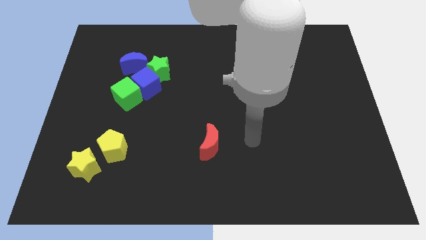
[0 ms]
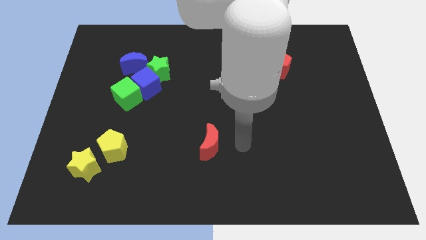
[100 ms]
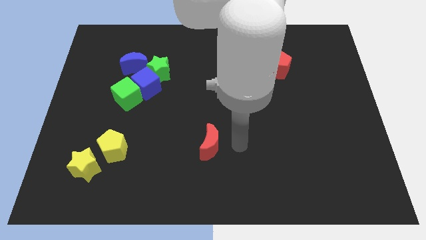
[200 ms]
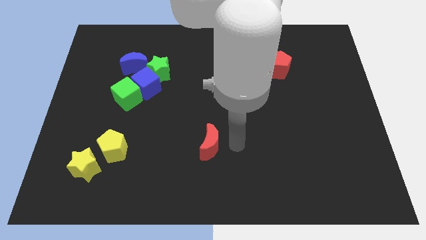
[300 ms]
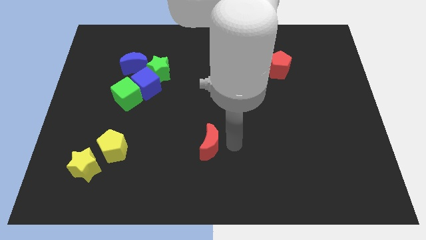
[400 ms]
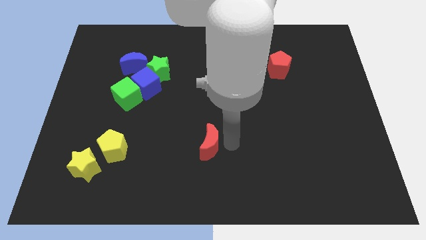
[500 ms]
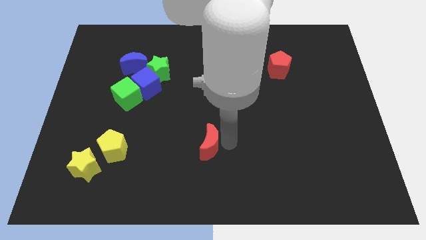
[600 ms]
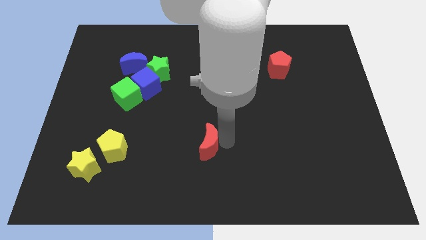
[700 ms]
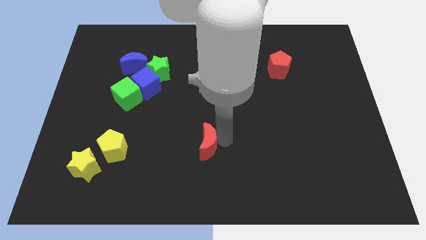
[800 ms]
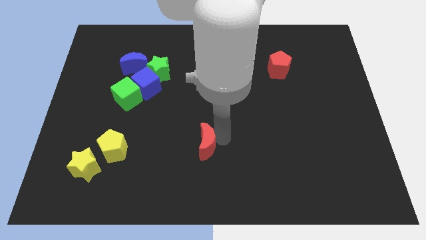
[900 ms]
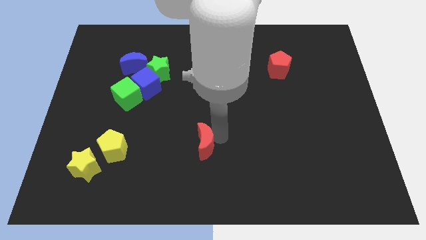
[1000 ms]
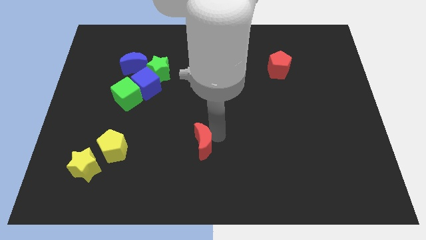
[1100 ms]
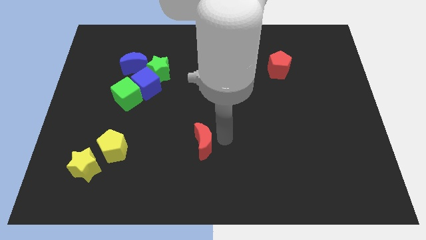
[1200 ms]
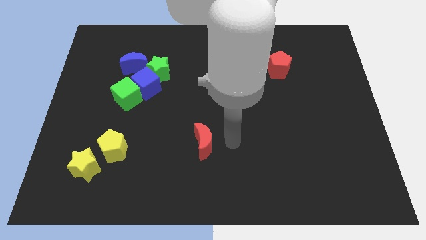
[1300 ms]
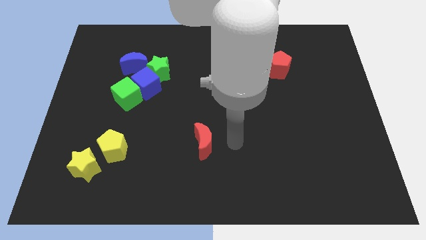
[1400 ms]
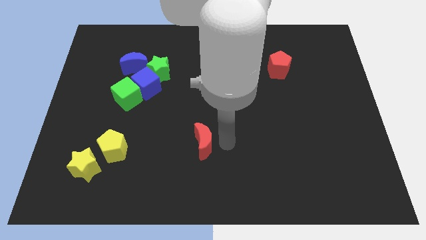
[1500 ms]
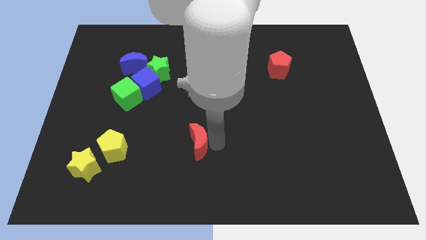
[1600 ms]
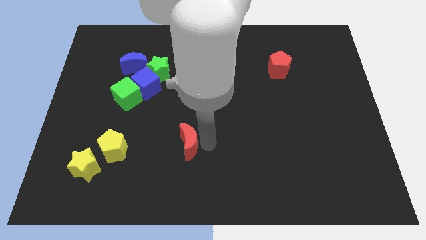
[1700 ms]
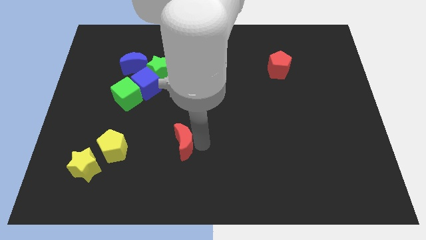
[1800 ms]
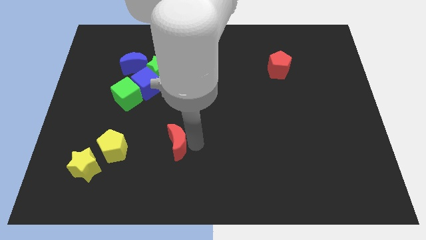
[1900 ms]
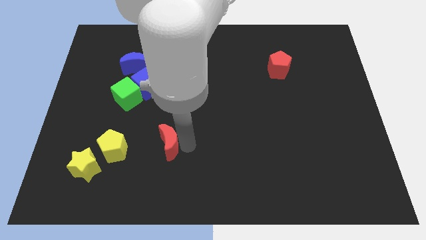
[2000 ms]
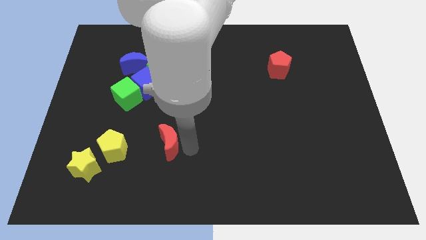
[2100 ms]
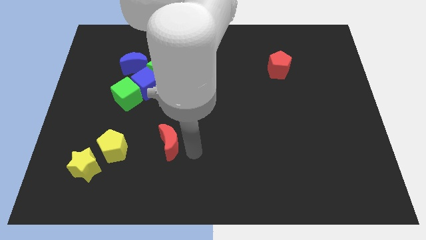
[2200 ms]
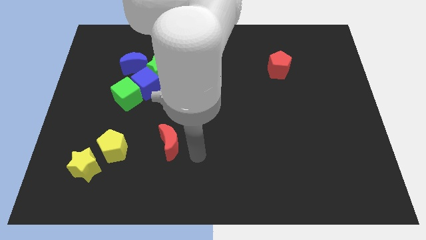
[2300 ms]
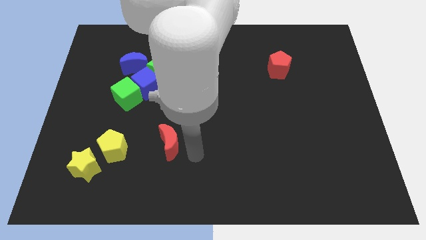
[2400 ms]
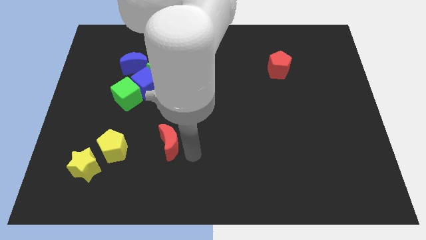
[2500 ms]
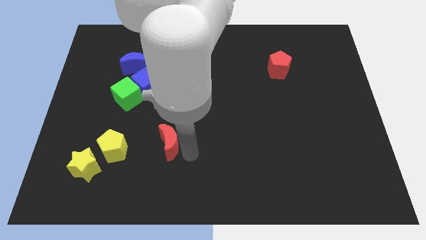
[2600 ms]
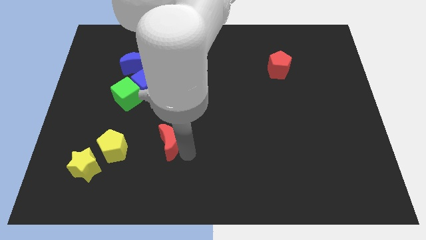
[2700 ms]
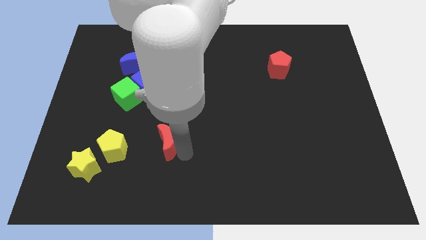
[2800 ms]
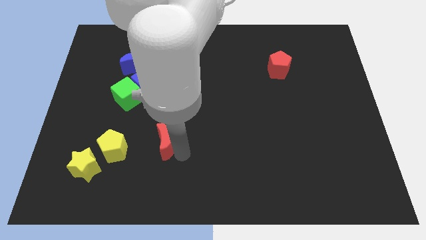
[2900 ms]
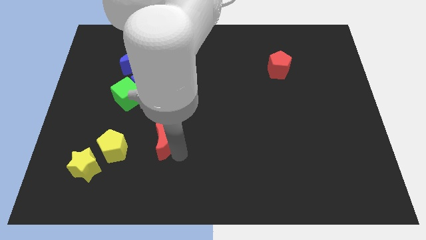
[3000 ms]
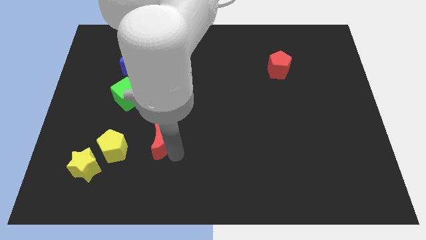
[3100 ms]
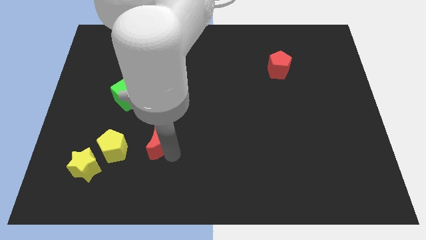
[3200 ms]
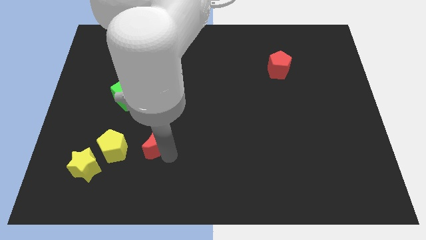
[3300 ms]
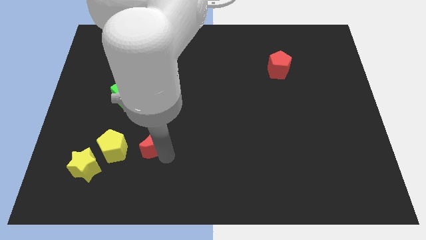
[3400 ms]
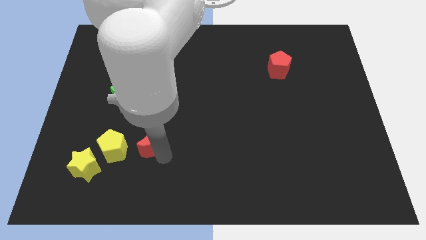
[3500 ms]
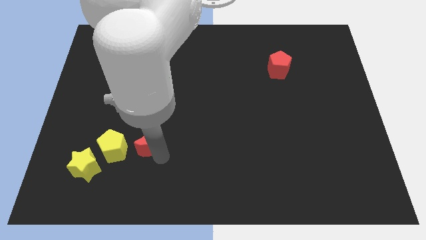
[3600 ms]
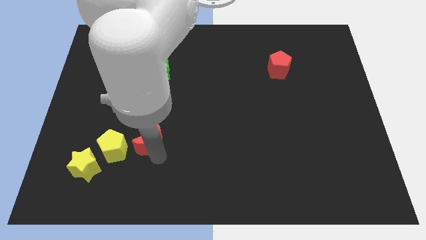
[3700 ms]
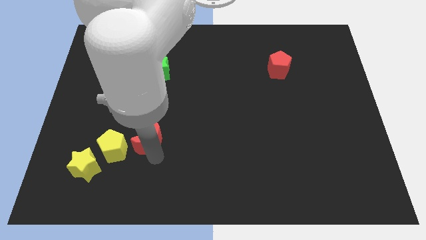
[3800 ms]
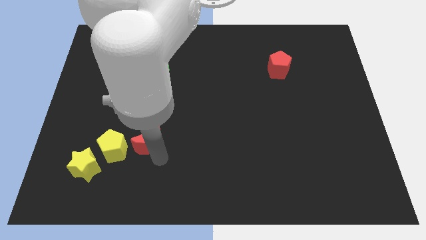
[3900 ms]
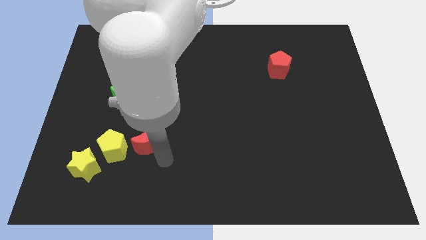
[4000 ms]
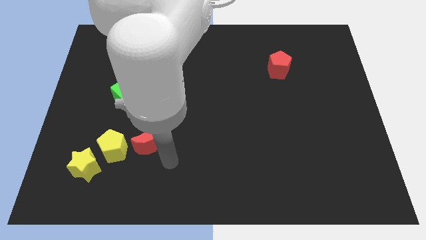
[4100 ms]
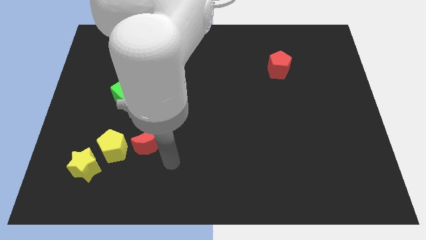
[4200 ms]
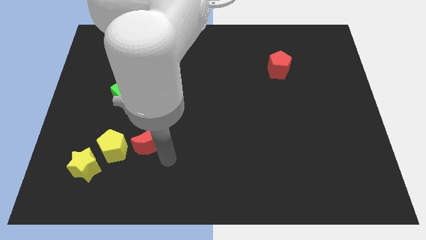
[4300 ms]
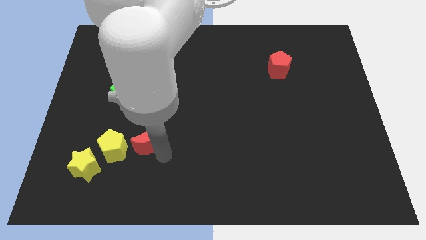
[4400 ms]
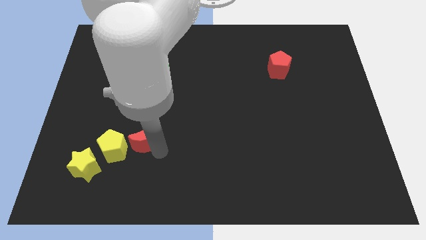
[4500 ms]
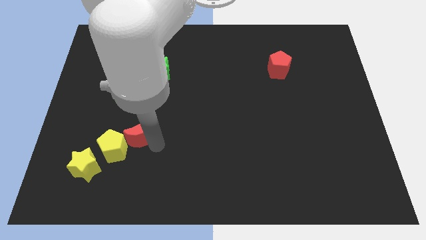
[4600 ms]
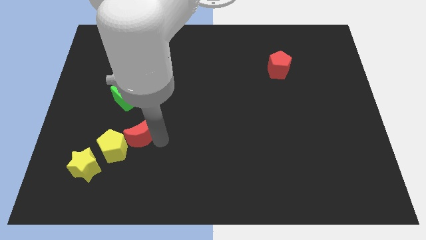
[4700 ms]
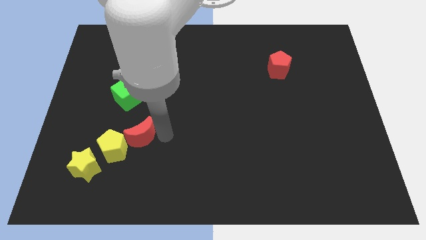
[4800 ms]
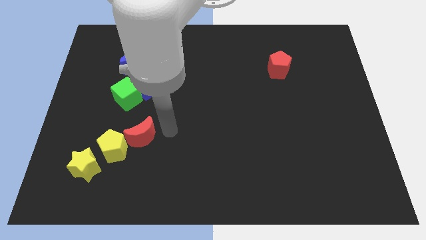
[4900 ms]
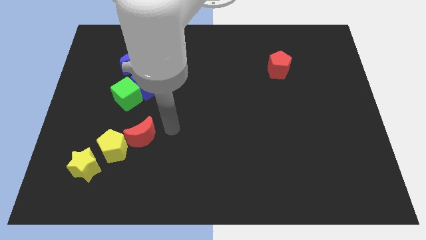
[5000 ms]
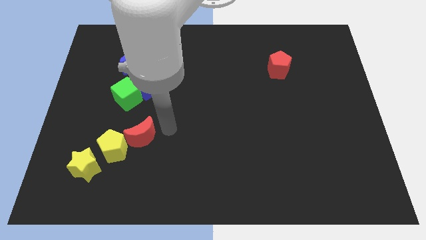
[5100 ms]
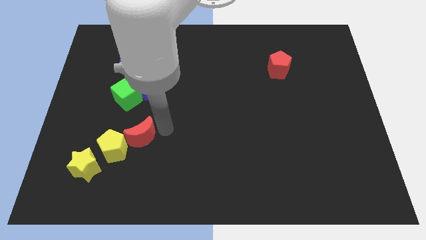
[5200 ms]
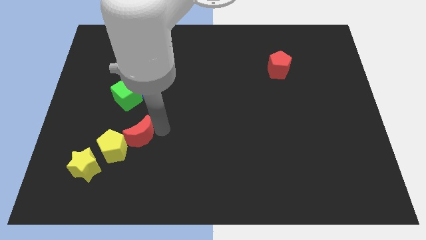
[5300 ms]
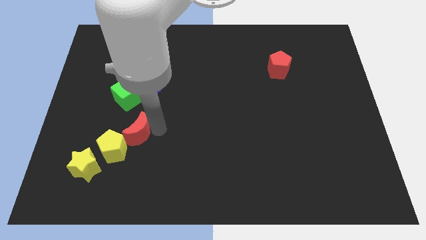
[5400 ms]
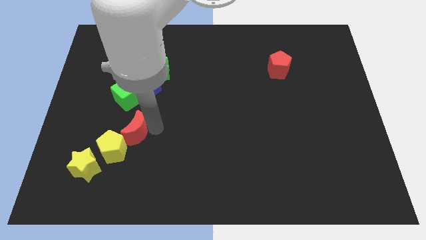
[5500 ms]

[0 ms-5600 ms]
push the red moon to the top right side of the yellow star

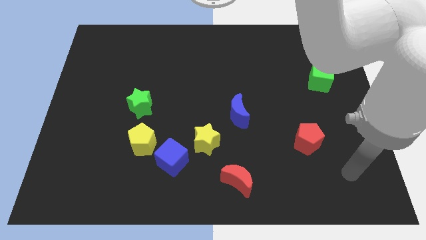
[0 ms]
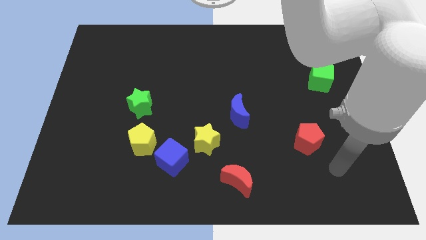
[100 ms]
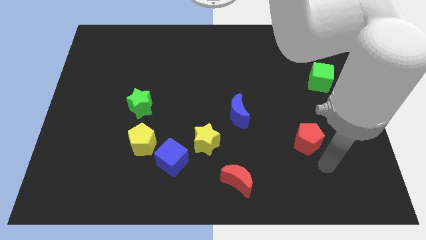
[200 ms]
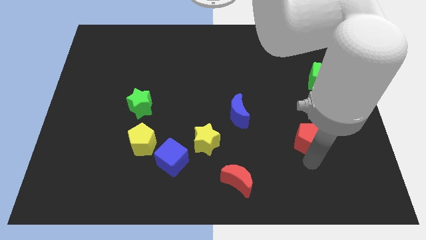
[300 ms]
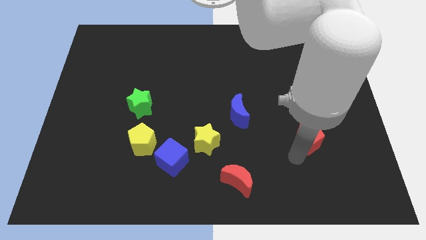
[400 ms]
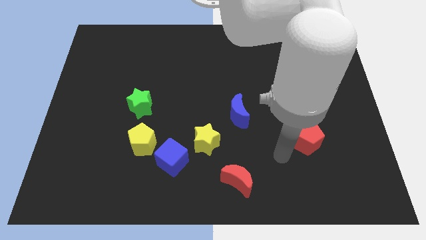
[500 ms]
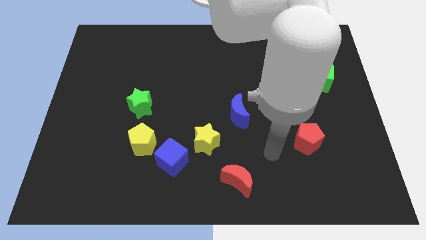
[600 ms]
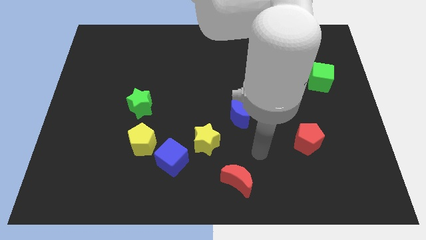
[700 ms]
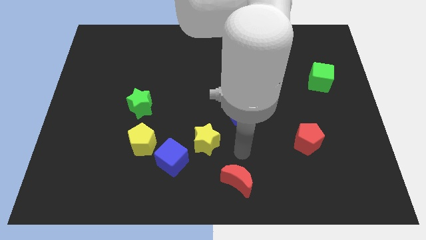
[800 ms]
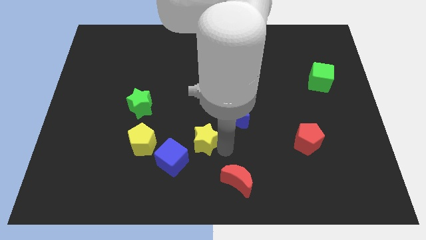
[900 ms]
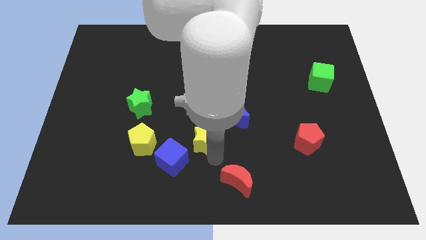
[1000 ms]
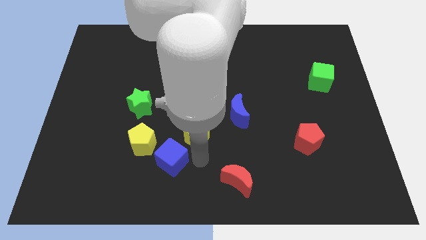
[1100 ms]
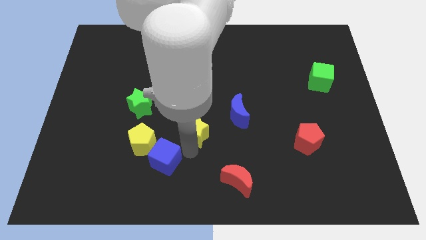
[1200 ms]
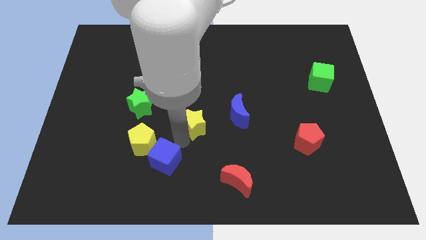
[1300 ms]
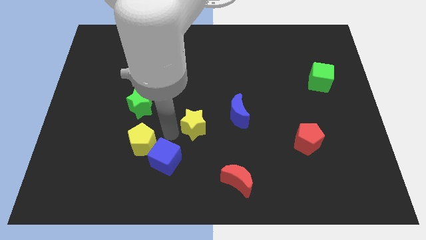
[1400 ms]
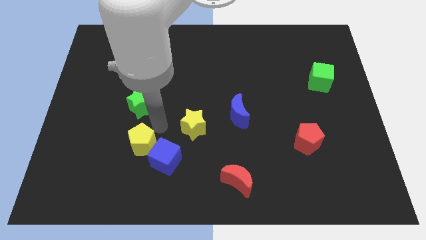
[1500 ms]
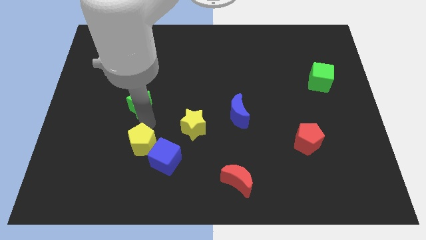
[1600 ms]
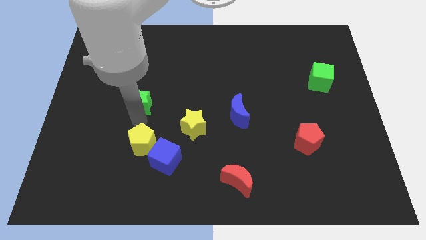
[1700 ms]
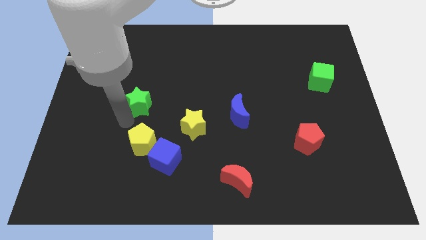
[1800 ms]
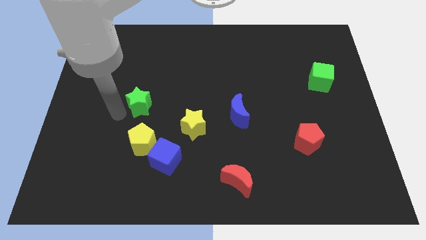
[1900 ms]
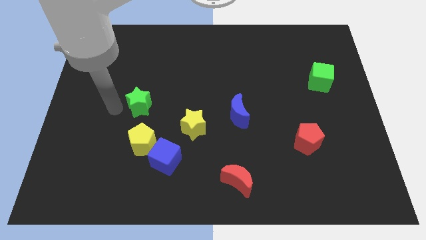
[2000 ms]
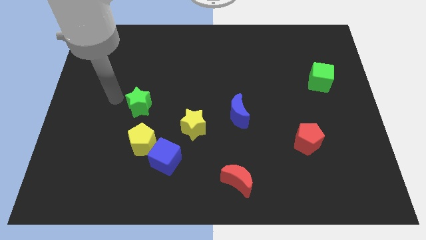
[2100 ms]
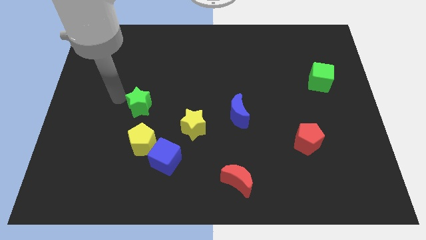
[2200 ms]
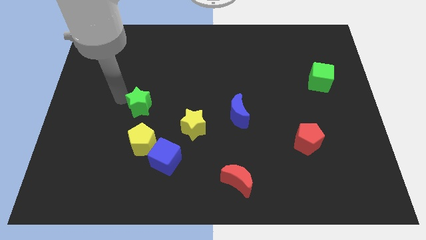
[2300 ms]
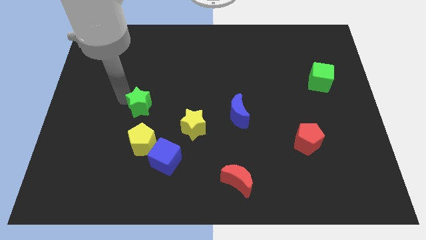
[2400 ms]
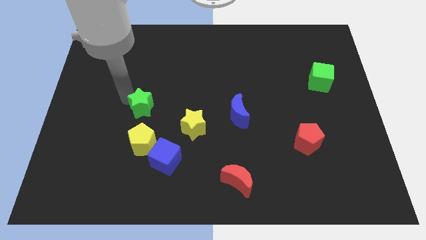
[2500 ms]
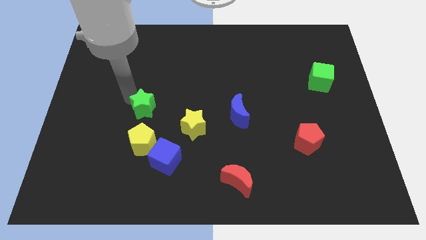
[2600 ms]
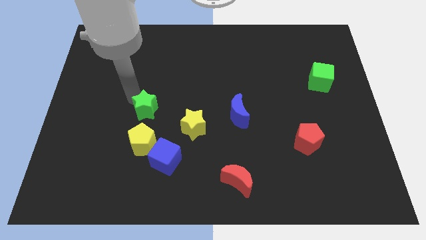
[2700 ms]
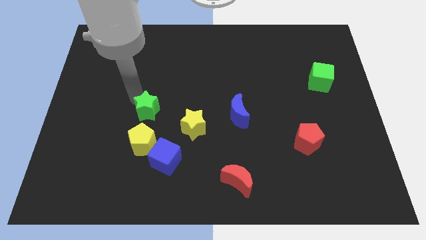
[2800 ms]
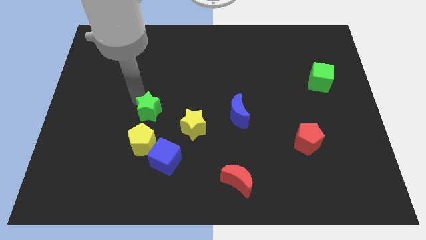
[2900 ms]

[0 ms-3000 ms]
put the green star to the top left side of the yellow star
